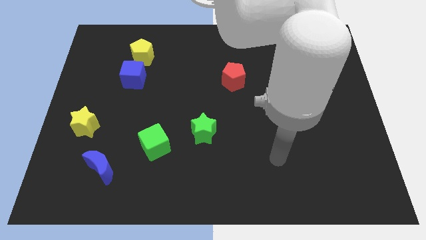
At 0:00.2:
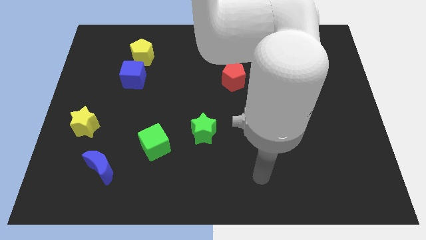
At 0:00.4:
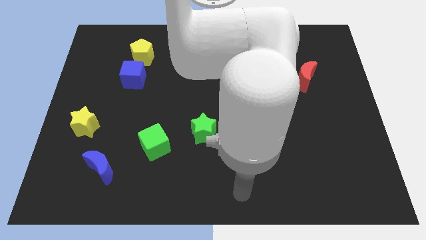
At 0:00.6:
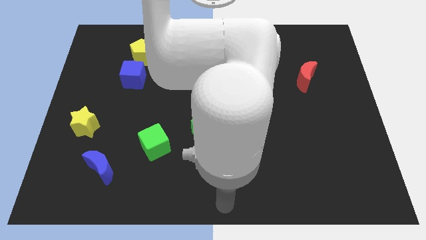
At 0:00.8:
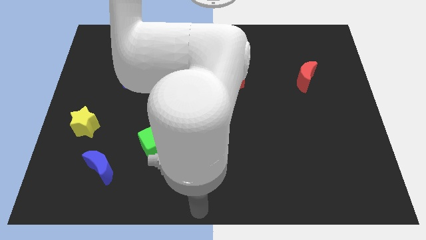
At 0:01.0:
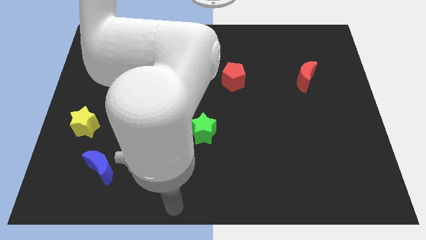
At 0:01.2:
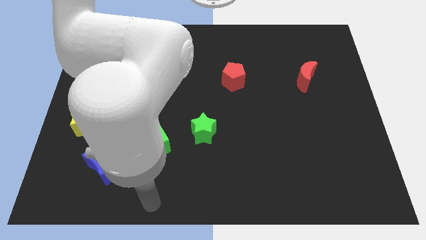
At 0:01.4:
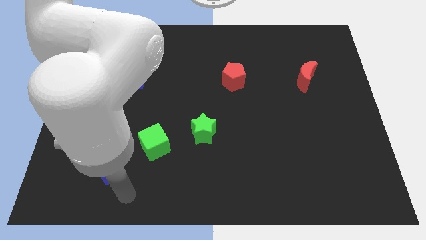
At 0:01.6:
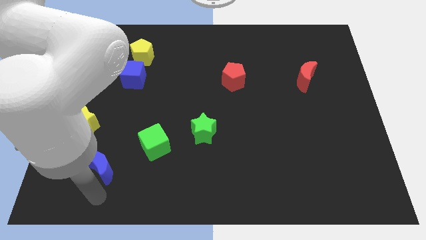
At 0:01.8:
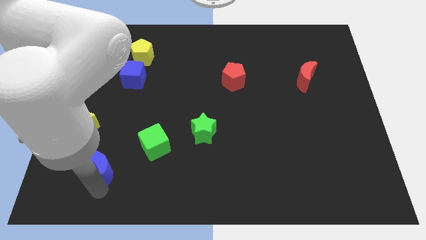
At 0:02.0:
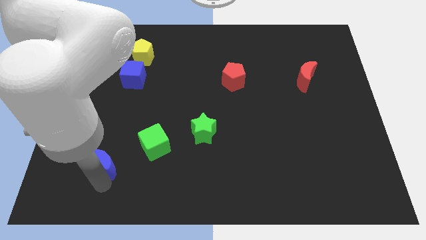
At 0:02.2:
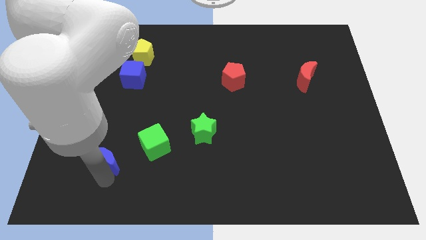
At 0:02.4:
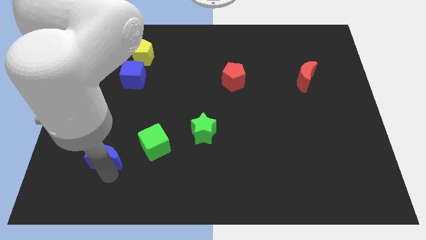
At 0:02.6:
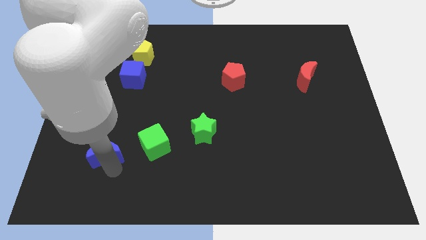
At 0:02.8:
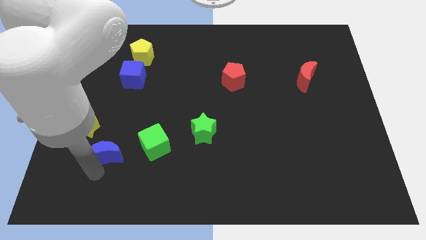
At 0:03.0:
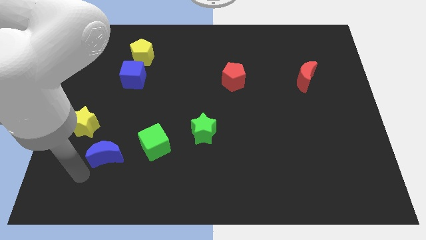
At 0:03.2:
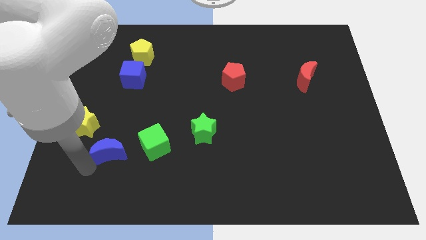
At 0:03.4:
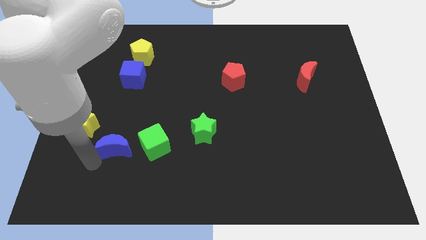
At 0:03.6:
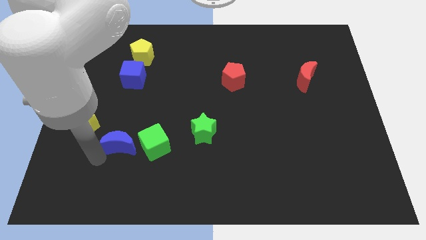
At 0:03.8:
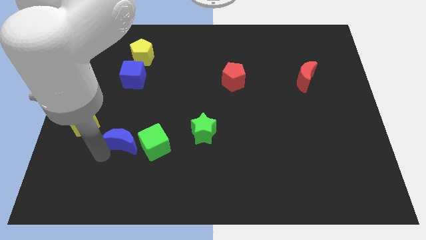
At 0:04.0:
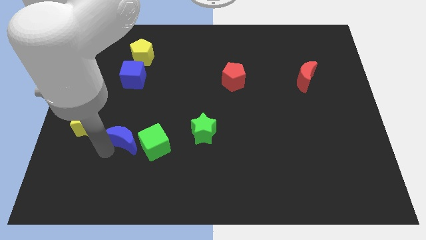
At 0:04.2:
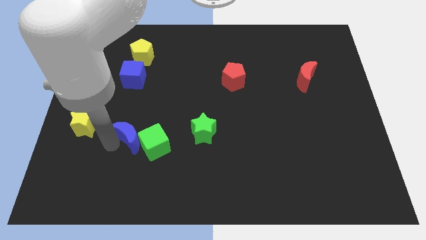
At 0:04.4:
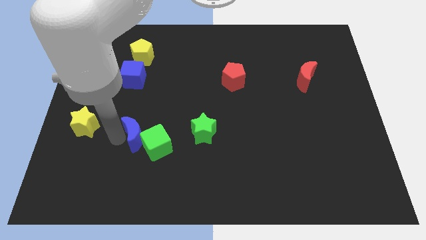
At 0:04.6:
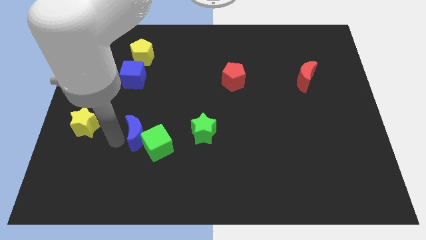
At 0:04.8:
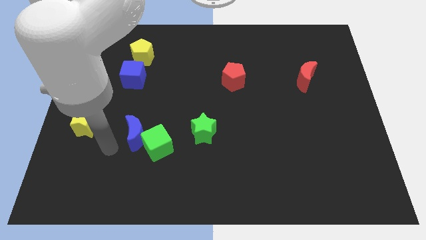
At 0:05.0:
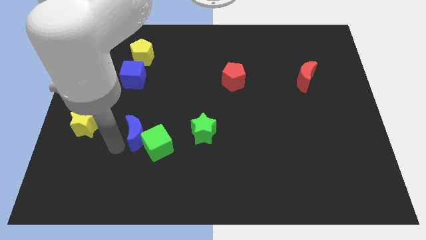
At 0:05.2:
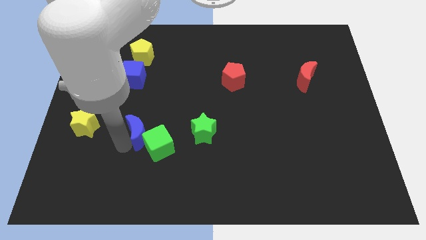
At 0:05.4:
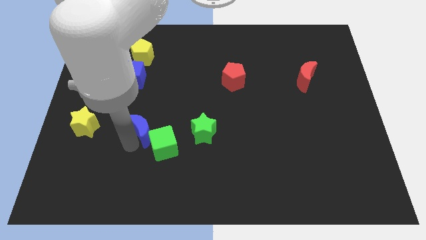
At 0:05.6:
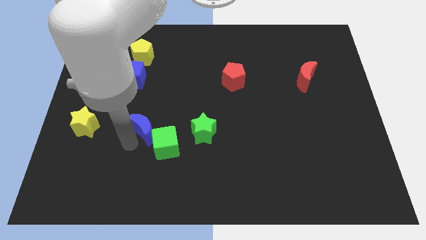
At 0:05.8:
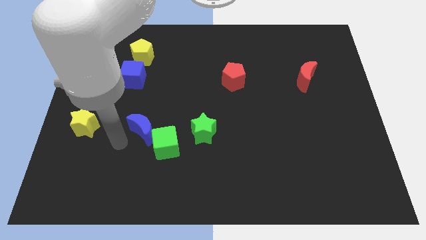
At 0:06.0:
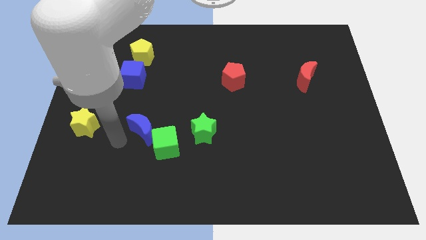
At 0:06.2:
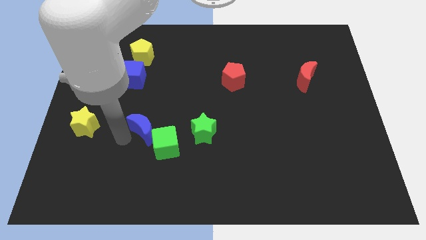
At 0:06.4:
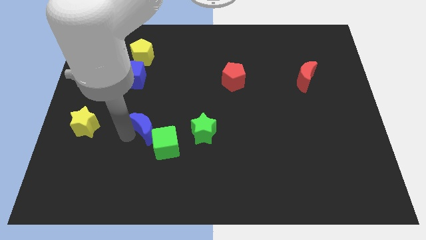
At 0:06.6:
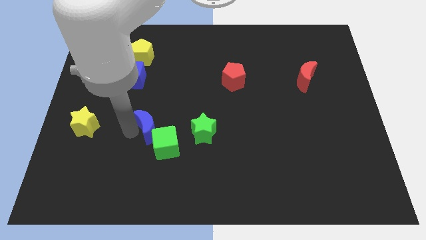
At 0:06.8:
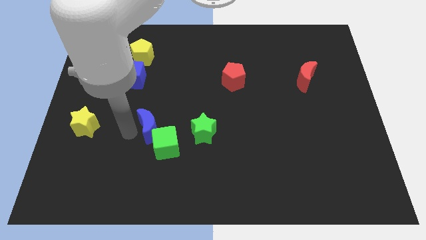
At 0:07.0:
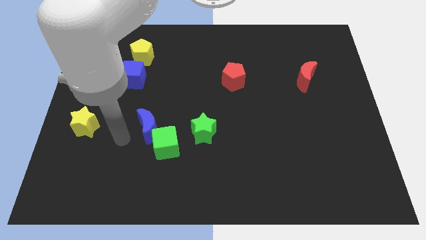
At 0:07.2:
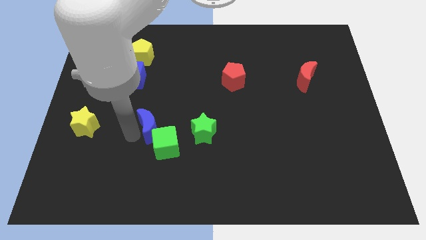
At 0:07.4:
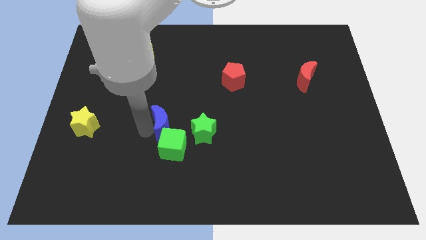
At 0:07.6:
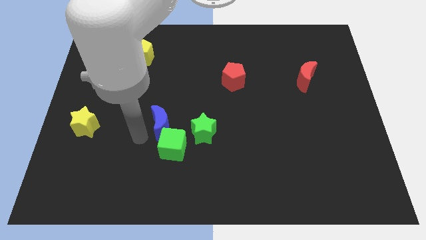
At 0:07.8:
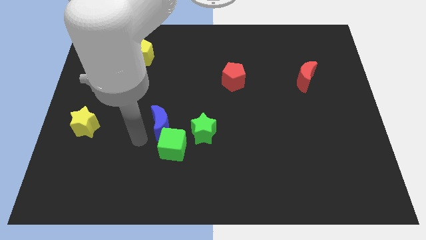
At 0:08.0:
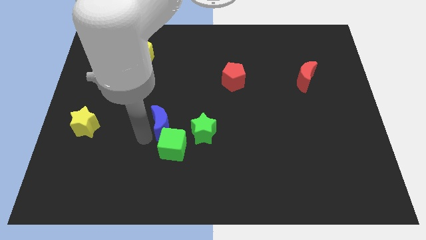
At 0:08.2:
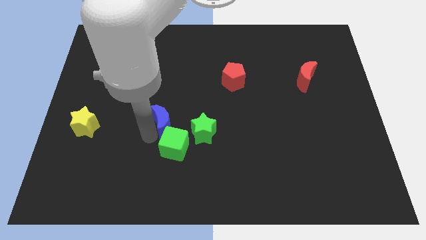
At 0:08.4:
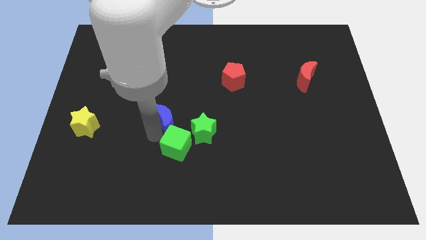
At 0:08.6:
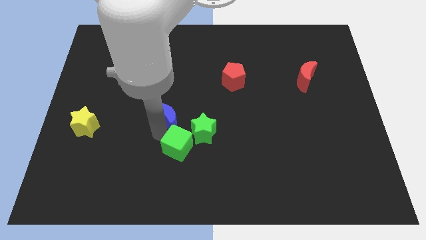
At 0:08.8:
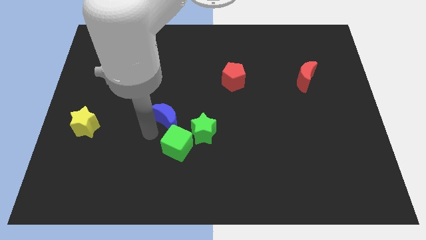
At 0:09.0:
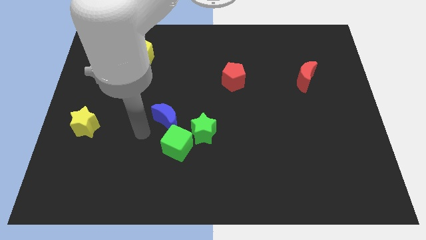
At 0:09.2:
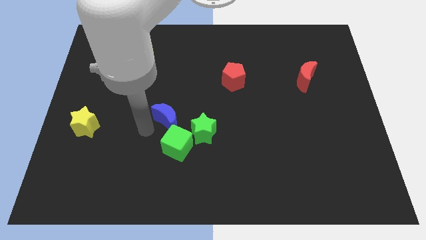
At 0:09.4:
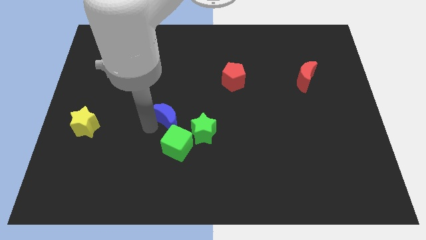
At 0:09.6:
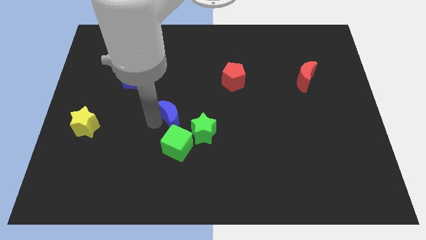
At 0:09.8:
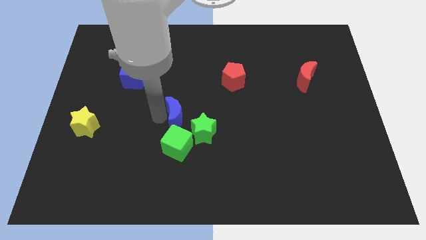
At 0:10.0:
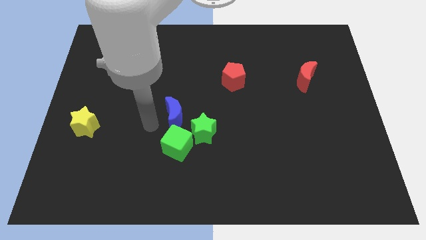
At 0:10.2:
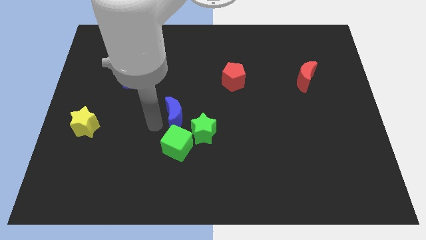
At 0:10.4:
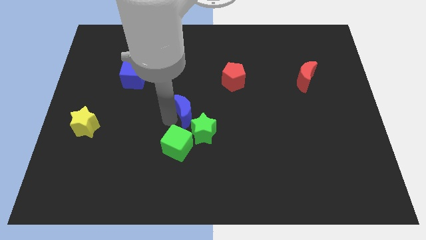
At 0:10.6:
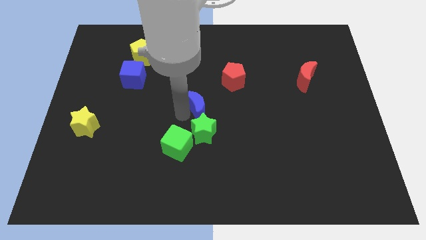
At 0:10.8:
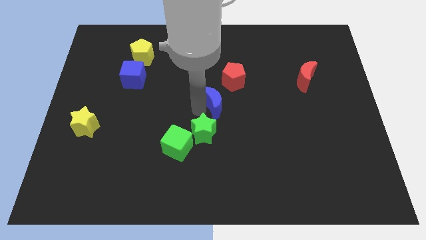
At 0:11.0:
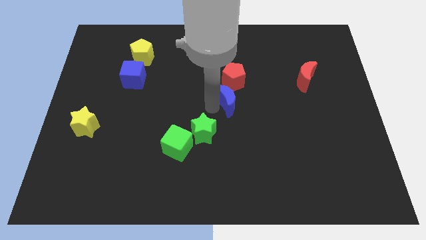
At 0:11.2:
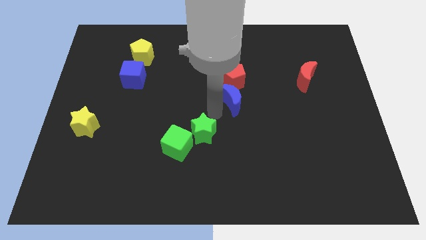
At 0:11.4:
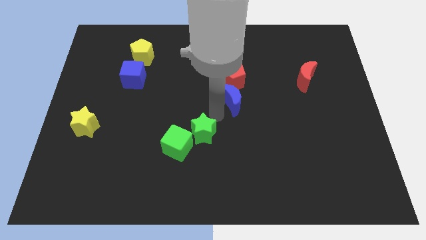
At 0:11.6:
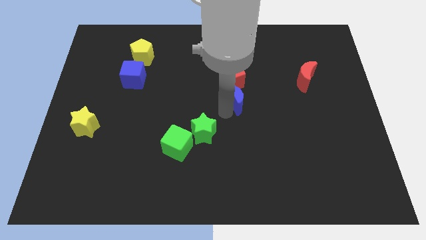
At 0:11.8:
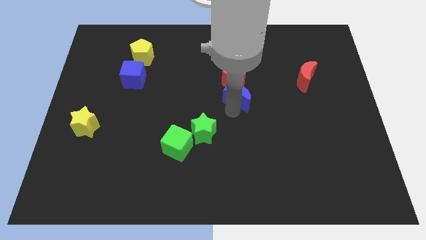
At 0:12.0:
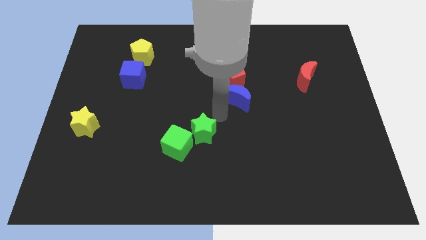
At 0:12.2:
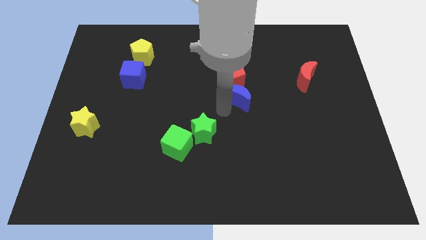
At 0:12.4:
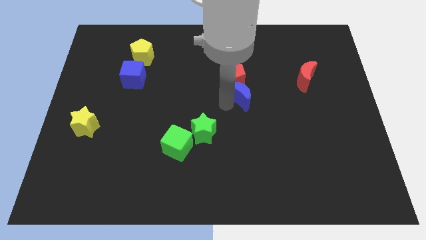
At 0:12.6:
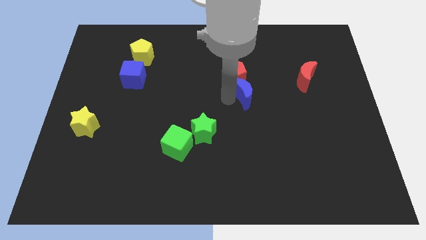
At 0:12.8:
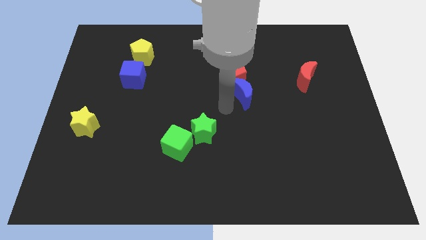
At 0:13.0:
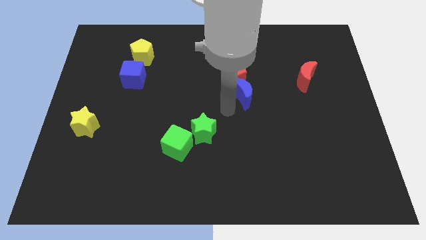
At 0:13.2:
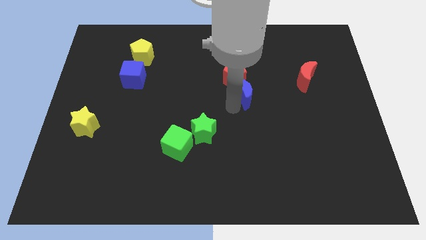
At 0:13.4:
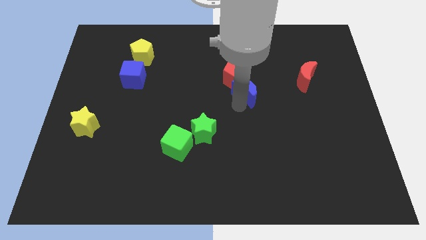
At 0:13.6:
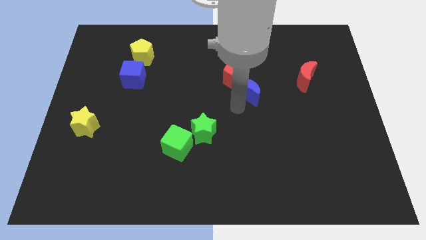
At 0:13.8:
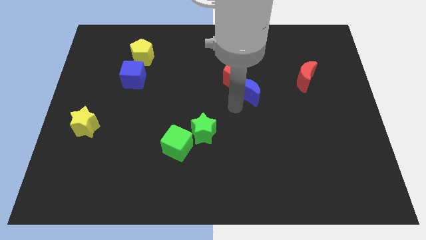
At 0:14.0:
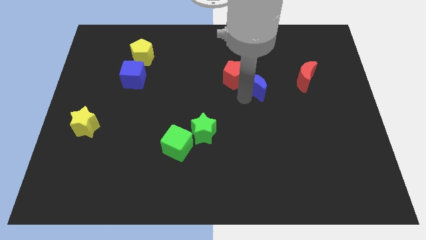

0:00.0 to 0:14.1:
slide the blue moon to the left side of the red moon

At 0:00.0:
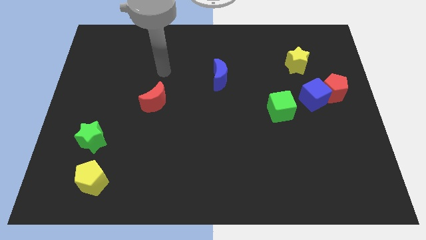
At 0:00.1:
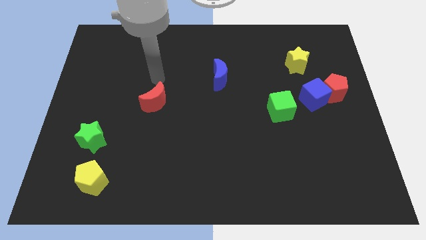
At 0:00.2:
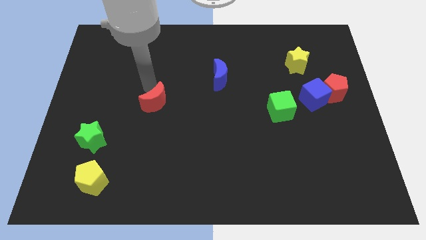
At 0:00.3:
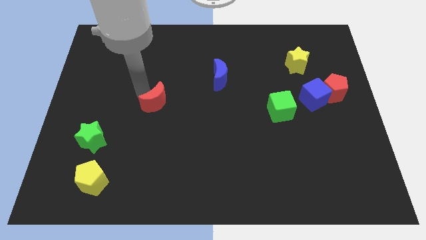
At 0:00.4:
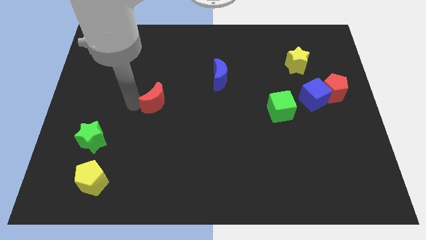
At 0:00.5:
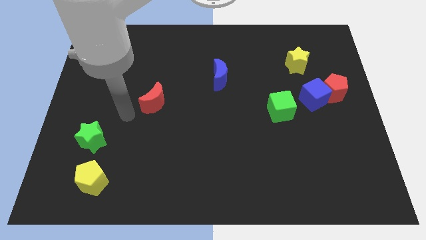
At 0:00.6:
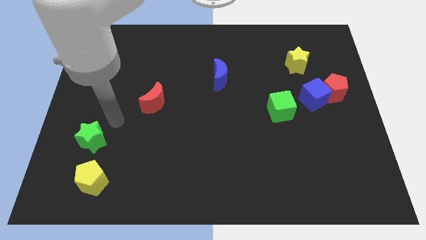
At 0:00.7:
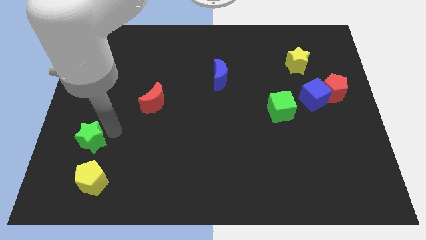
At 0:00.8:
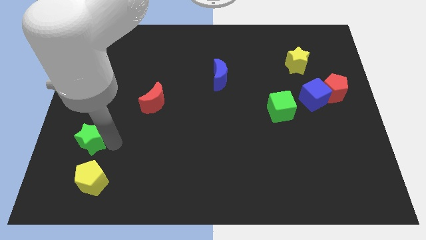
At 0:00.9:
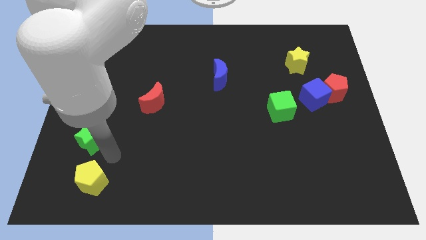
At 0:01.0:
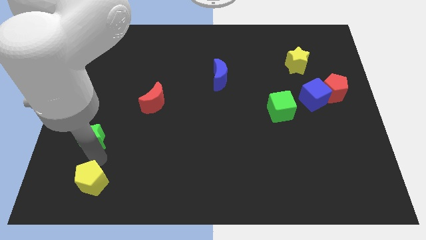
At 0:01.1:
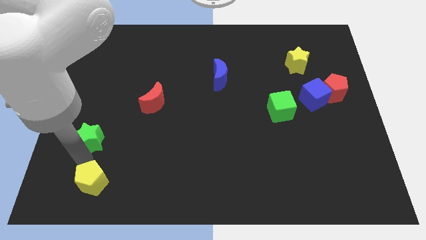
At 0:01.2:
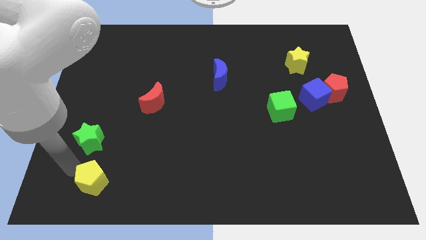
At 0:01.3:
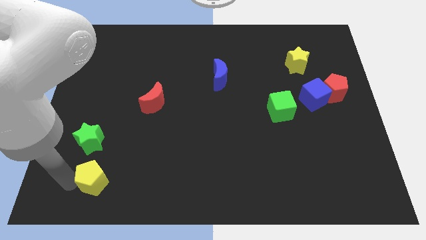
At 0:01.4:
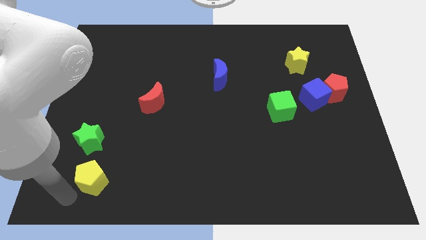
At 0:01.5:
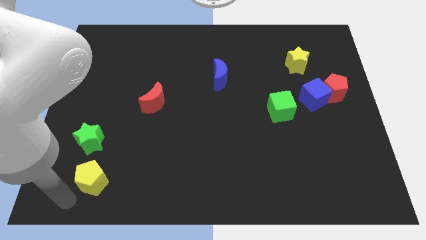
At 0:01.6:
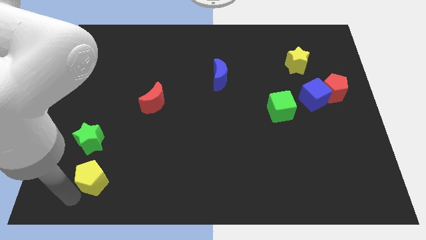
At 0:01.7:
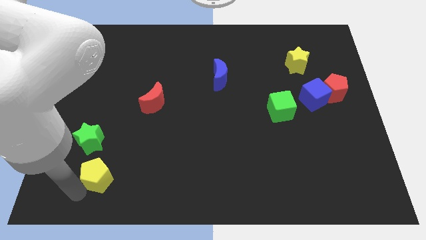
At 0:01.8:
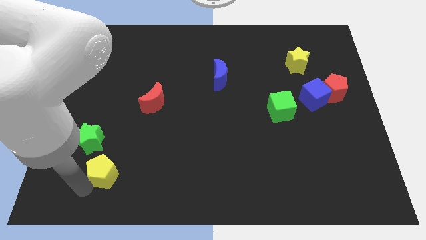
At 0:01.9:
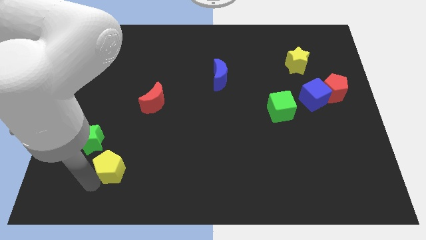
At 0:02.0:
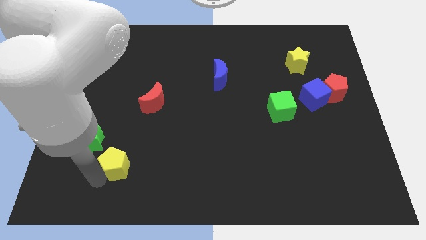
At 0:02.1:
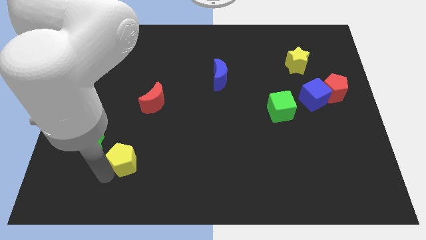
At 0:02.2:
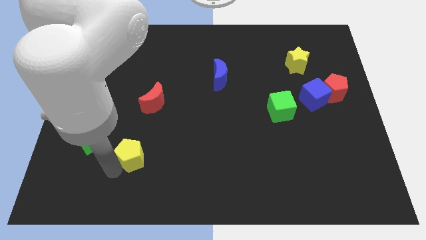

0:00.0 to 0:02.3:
move the yellow pentagon right of the green star
